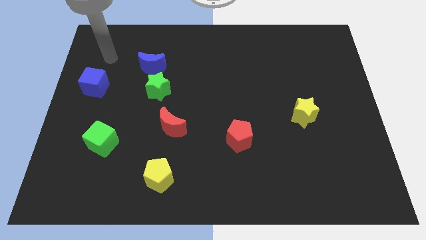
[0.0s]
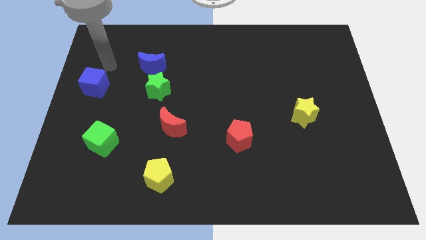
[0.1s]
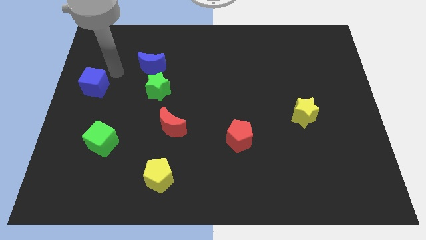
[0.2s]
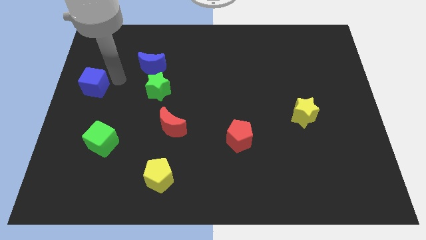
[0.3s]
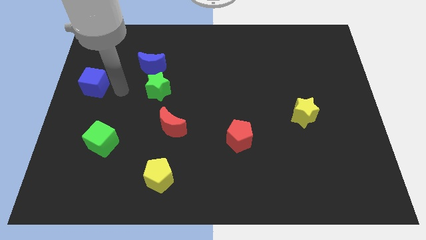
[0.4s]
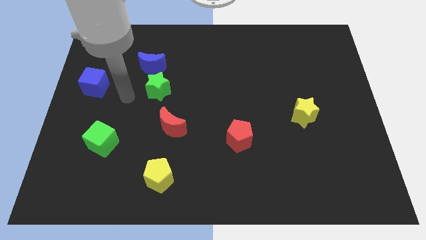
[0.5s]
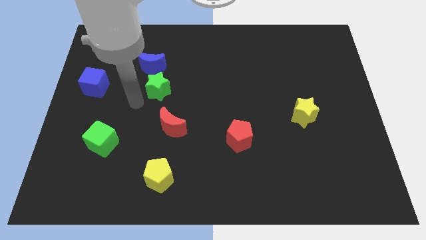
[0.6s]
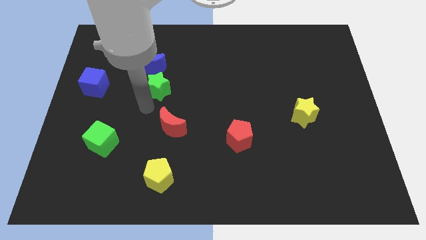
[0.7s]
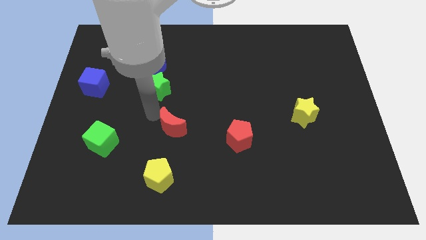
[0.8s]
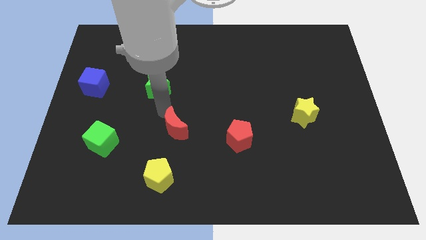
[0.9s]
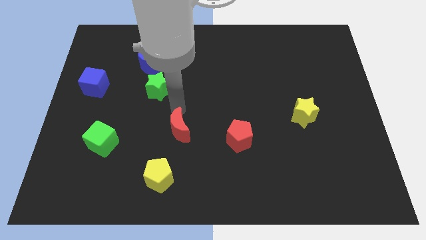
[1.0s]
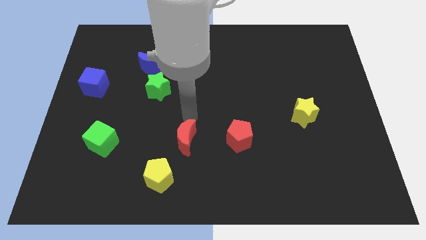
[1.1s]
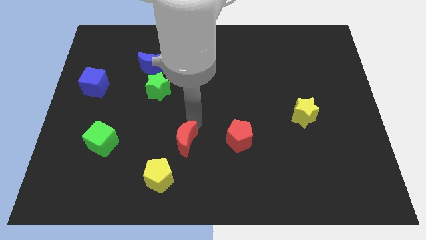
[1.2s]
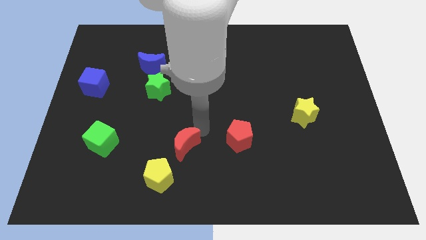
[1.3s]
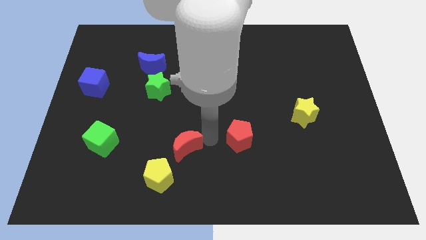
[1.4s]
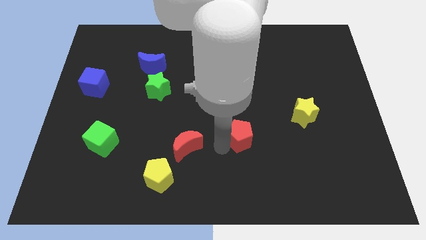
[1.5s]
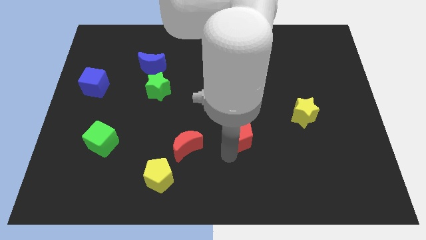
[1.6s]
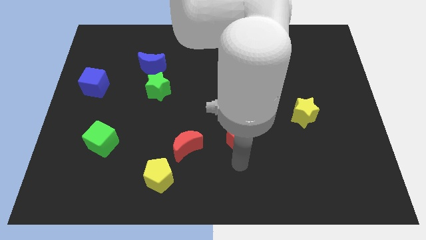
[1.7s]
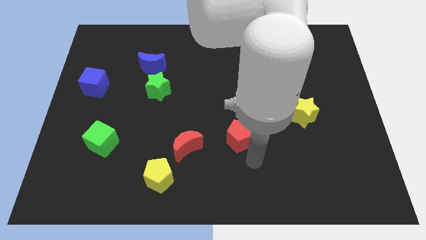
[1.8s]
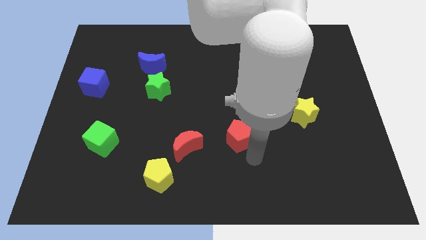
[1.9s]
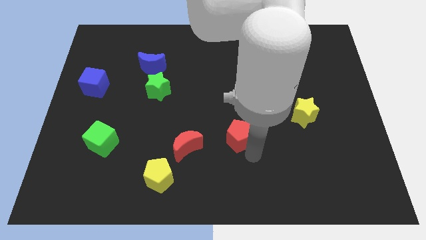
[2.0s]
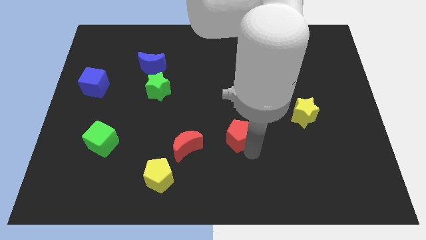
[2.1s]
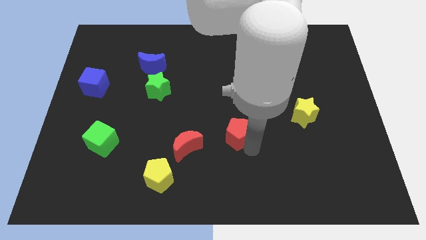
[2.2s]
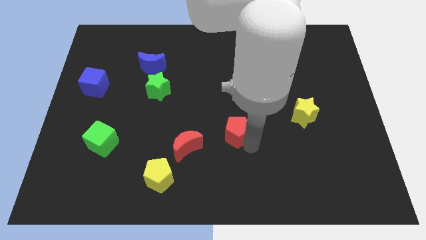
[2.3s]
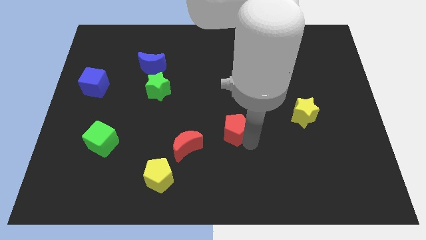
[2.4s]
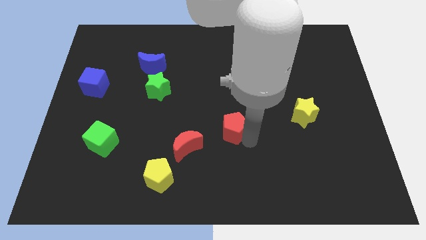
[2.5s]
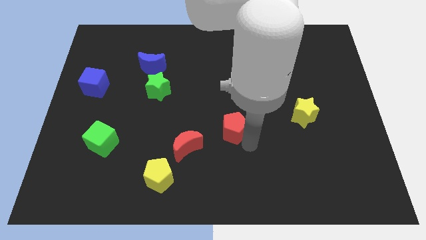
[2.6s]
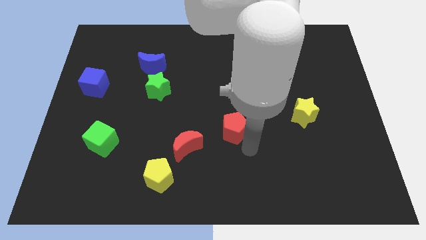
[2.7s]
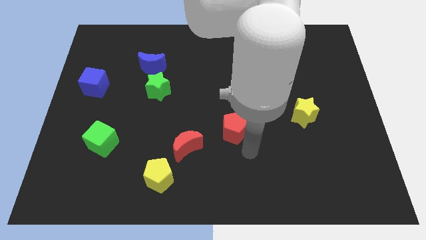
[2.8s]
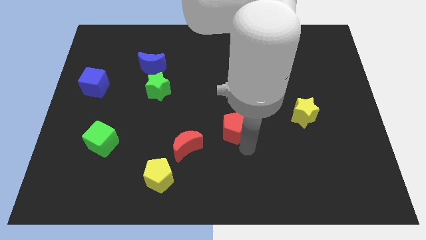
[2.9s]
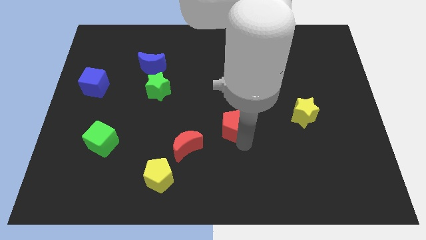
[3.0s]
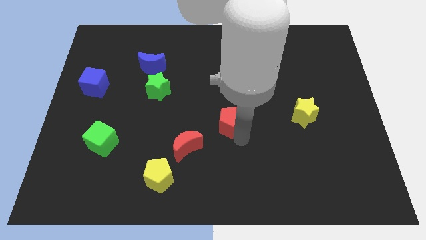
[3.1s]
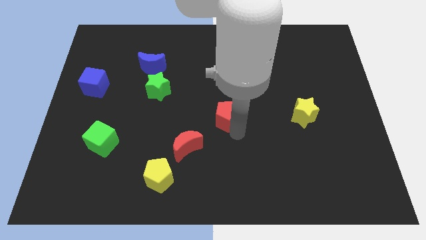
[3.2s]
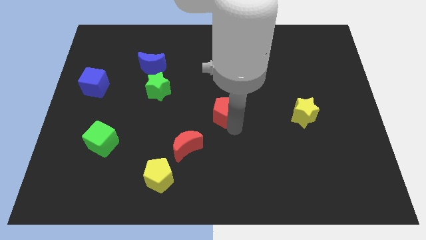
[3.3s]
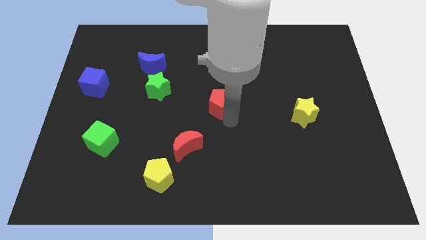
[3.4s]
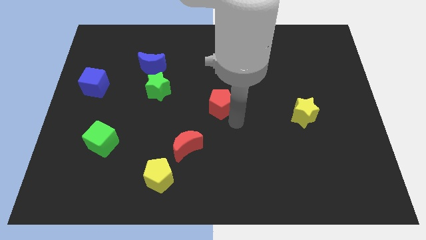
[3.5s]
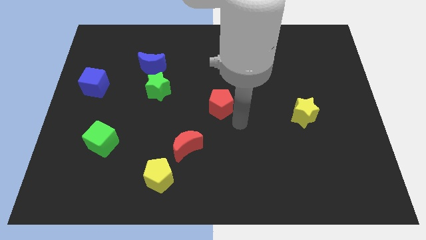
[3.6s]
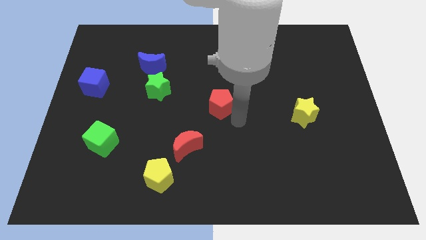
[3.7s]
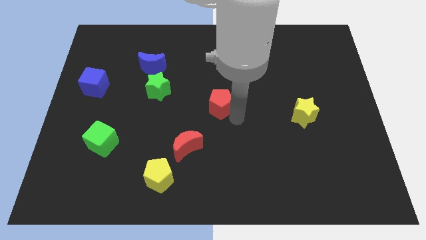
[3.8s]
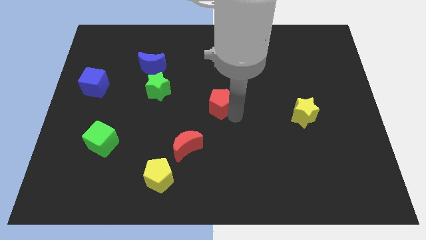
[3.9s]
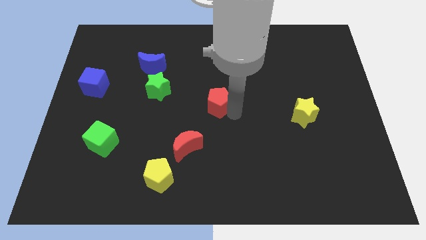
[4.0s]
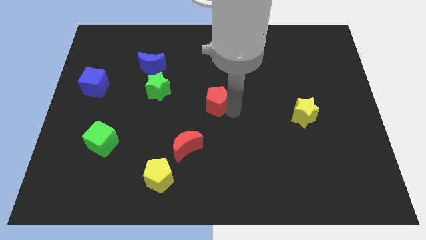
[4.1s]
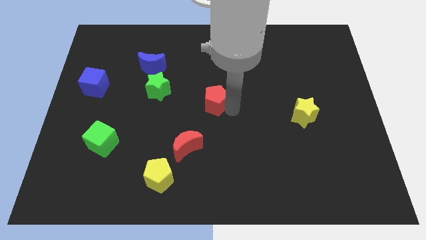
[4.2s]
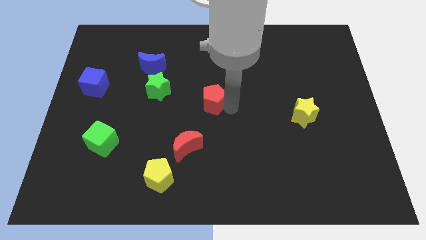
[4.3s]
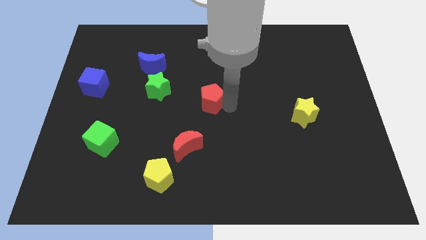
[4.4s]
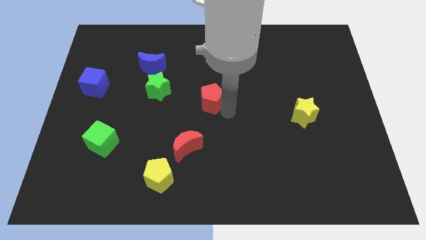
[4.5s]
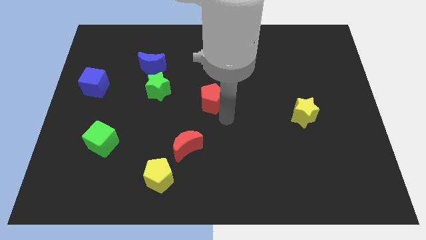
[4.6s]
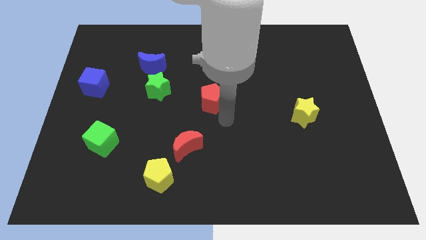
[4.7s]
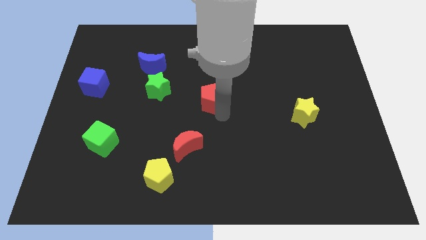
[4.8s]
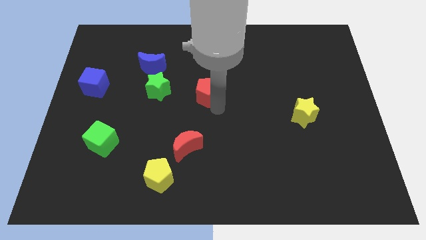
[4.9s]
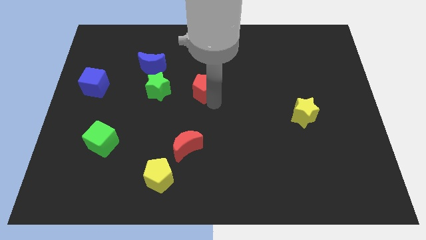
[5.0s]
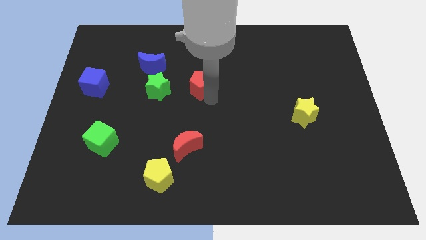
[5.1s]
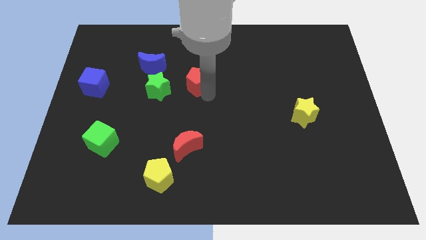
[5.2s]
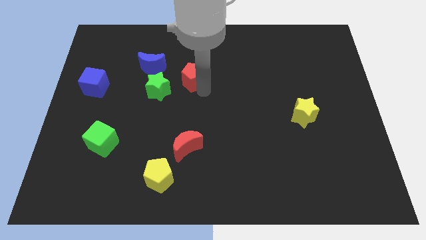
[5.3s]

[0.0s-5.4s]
slide the red pentagon to the right side of the blue moon

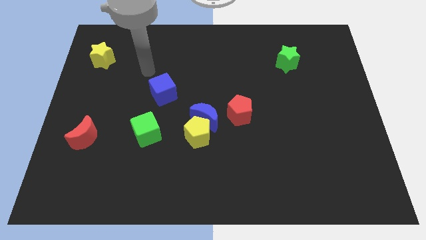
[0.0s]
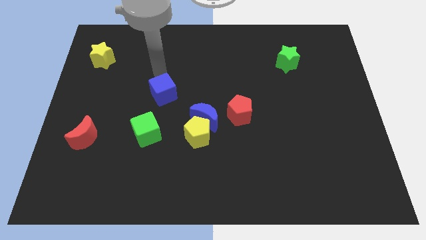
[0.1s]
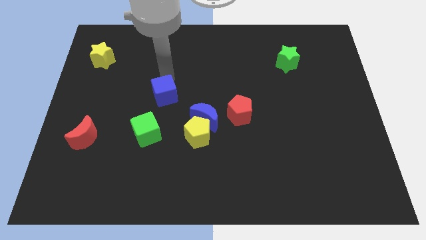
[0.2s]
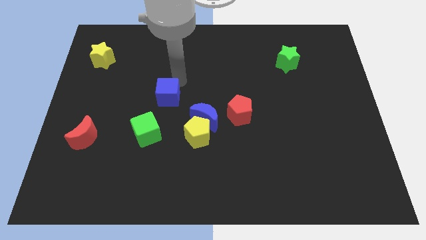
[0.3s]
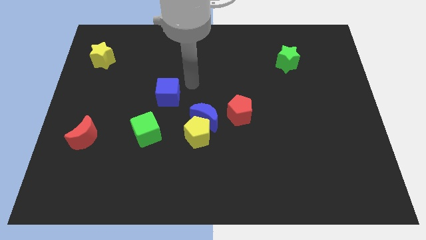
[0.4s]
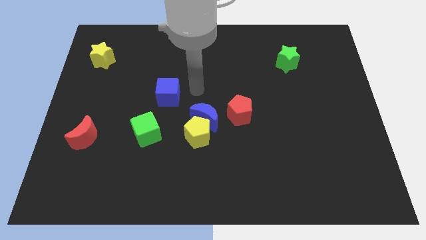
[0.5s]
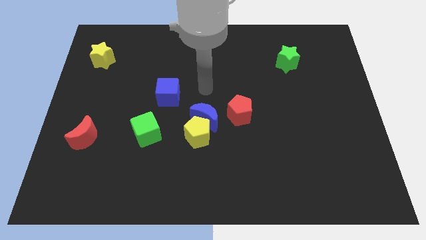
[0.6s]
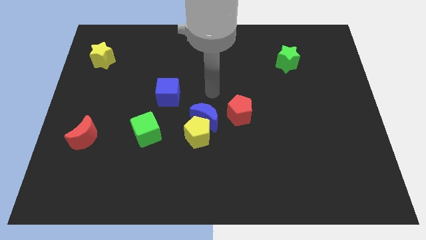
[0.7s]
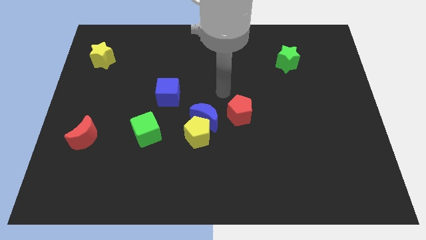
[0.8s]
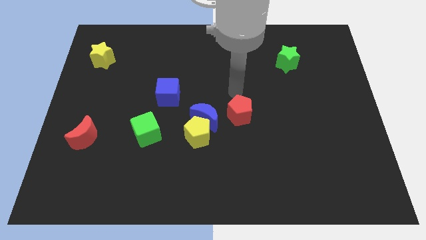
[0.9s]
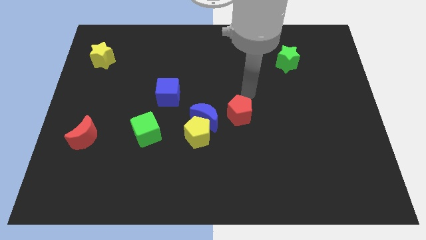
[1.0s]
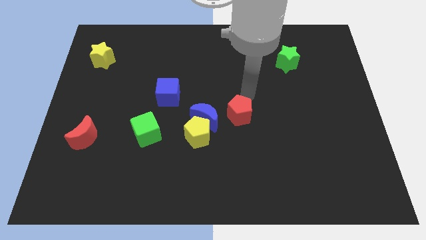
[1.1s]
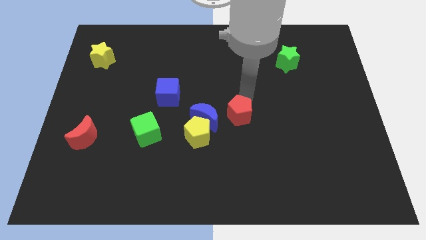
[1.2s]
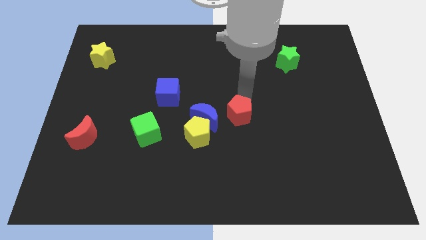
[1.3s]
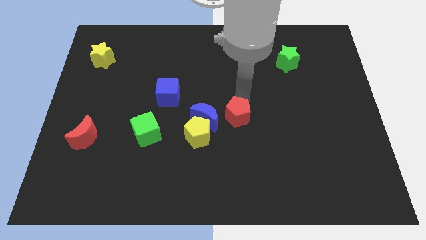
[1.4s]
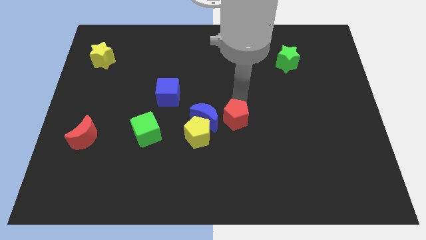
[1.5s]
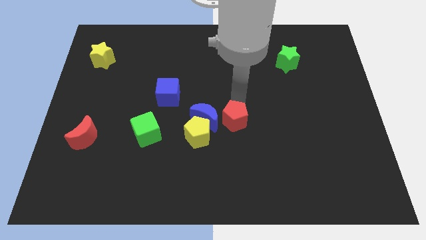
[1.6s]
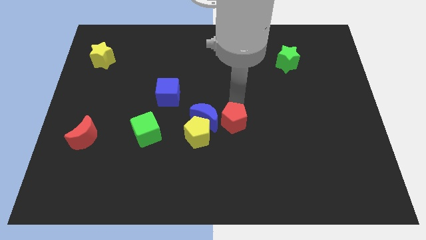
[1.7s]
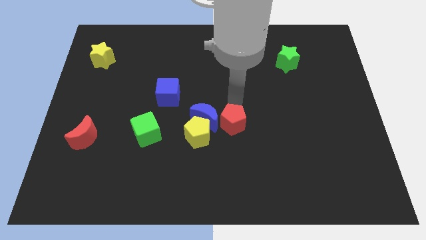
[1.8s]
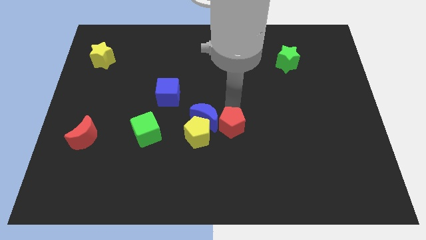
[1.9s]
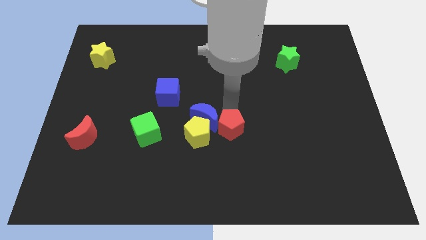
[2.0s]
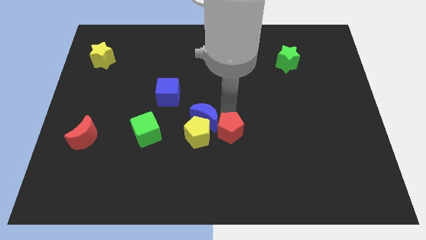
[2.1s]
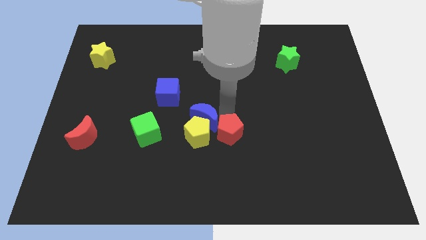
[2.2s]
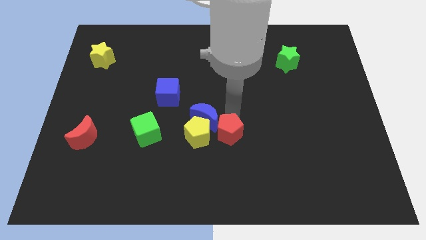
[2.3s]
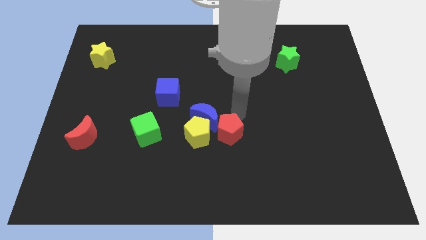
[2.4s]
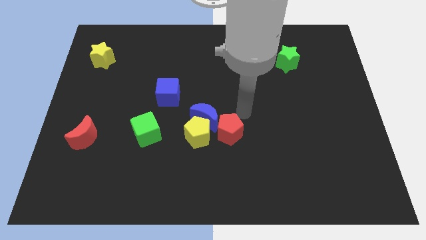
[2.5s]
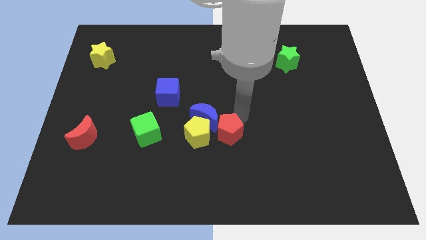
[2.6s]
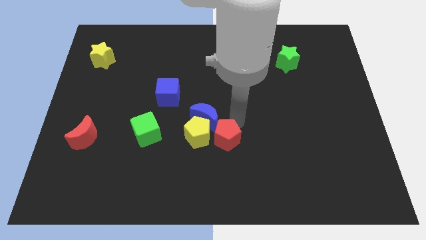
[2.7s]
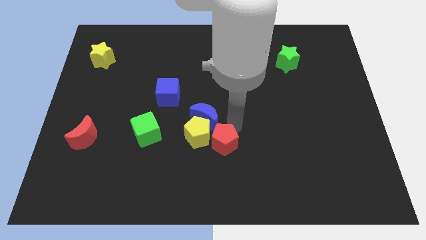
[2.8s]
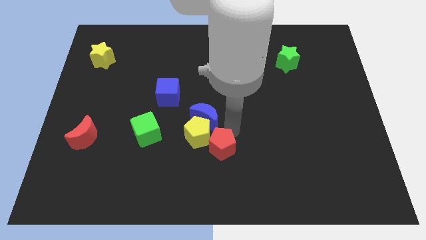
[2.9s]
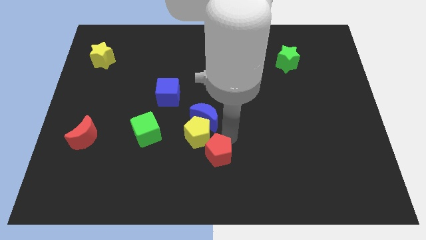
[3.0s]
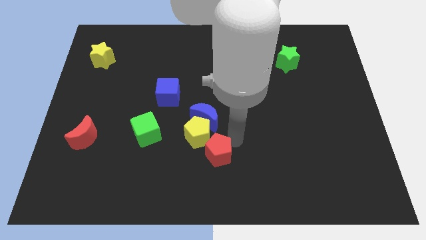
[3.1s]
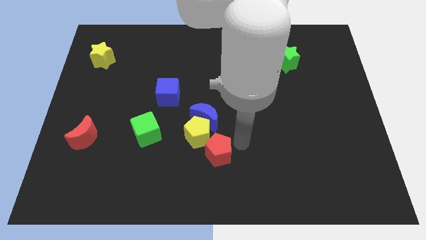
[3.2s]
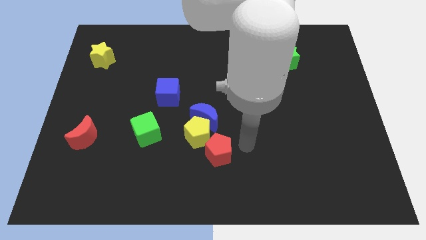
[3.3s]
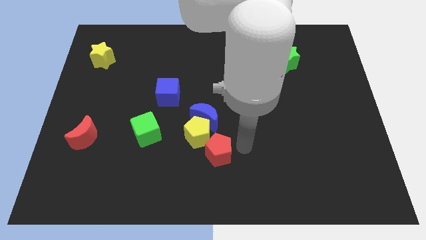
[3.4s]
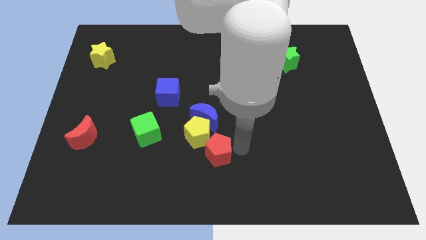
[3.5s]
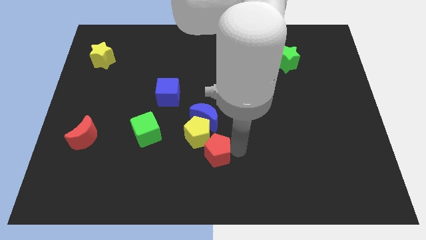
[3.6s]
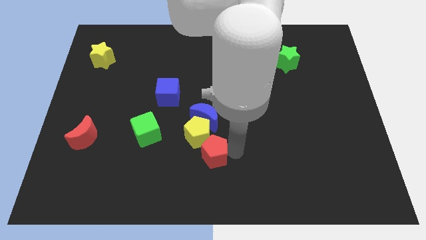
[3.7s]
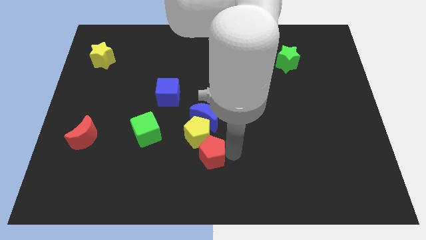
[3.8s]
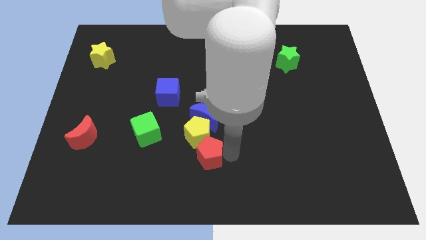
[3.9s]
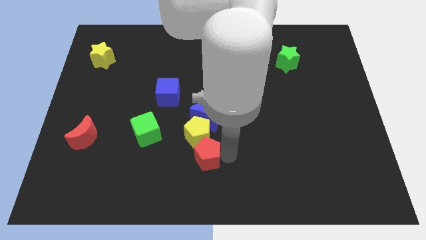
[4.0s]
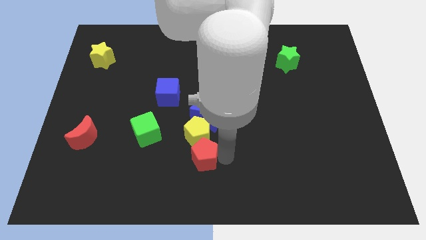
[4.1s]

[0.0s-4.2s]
put the red pentagon diagonally down and to the left of the yellow pentagon
